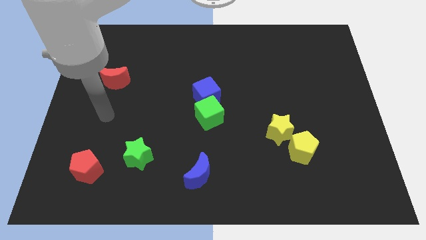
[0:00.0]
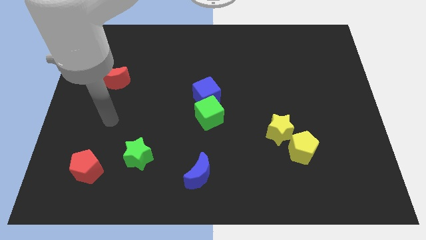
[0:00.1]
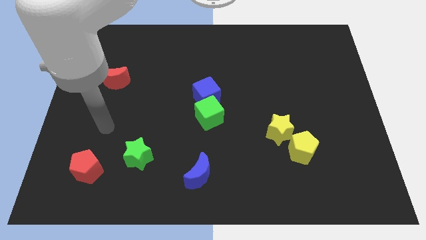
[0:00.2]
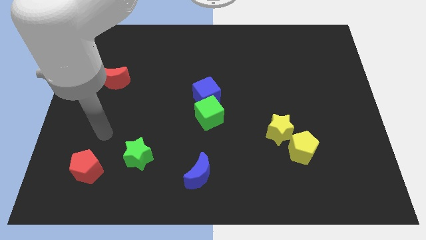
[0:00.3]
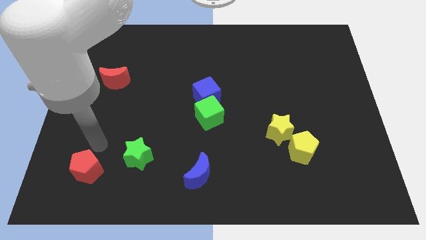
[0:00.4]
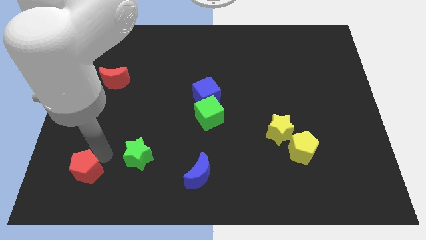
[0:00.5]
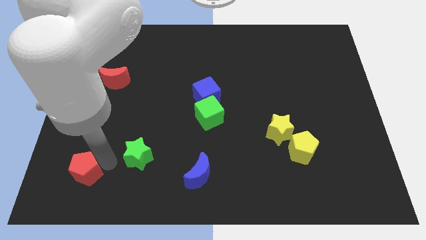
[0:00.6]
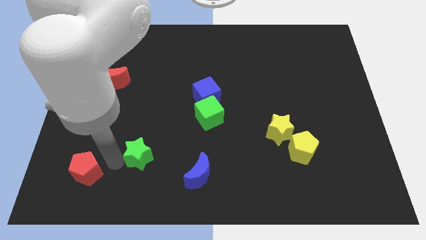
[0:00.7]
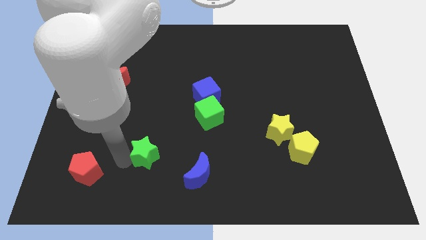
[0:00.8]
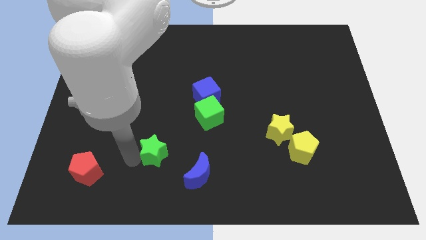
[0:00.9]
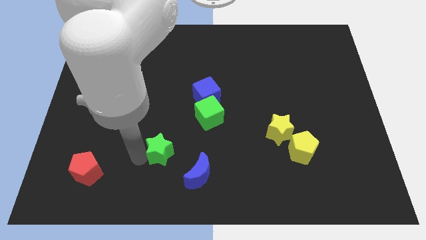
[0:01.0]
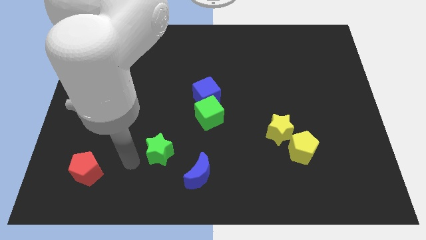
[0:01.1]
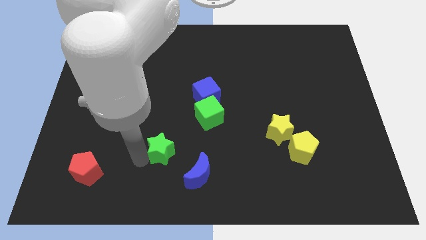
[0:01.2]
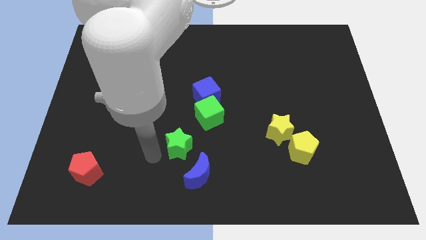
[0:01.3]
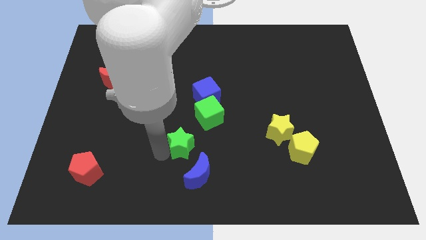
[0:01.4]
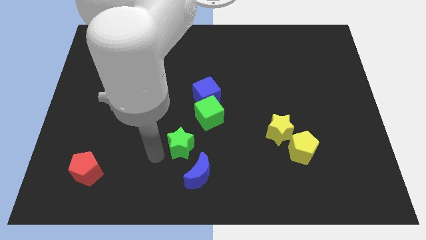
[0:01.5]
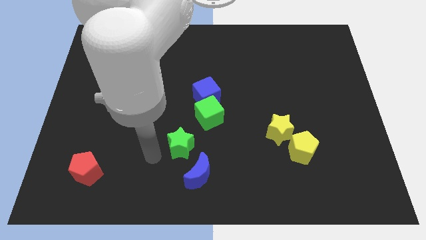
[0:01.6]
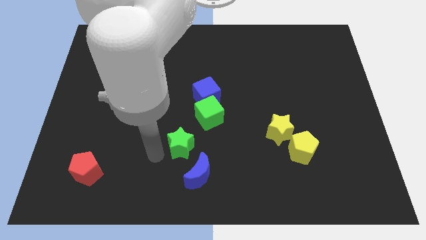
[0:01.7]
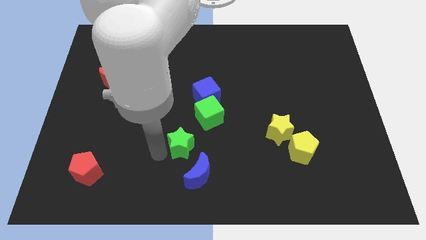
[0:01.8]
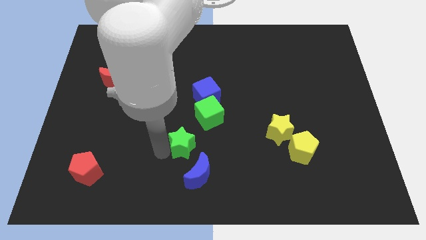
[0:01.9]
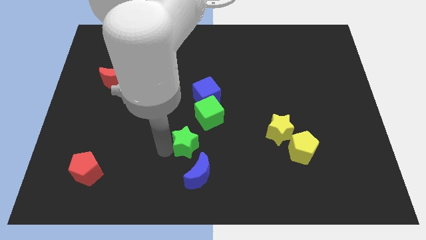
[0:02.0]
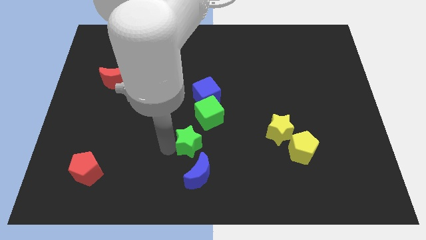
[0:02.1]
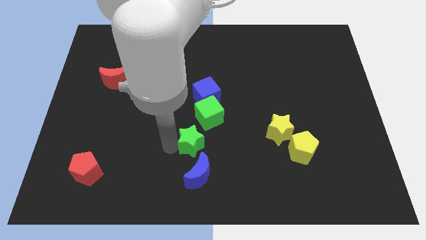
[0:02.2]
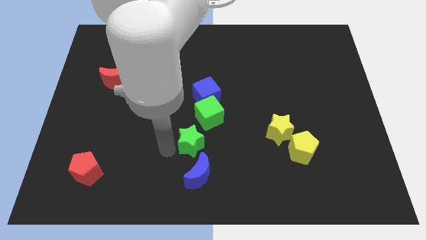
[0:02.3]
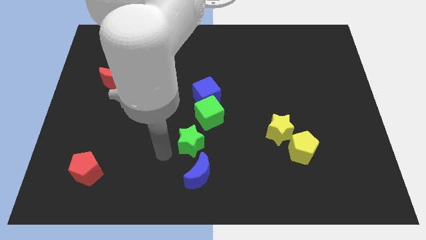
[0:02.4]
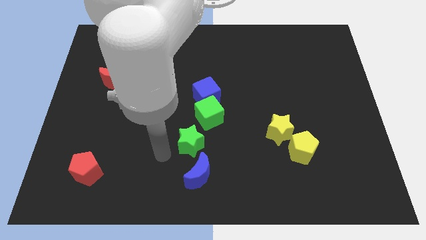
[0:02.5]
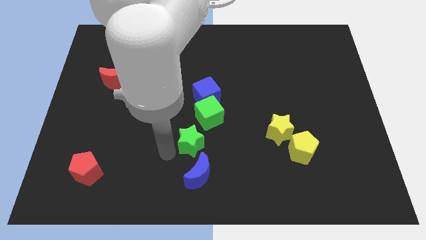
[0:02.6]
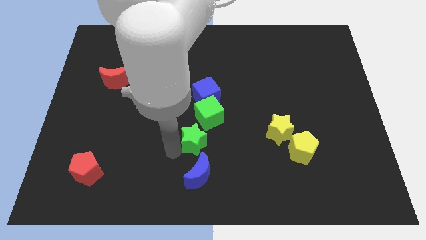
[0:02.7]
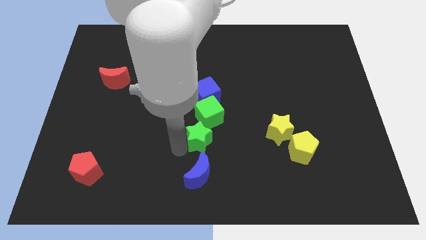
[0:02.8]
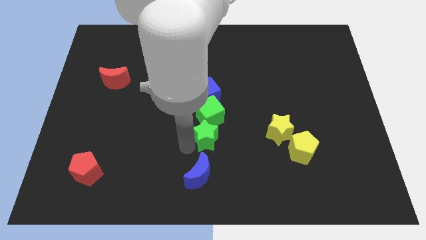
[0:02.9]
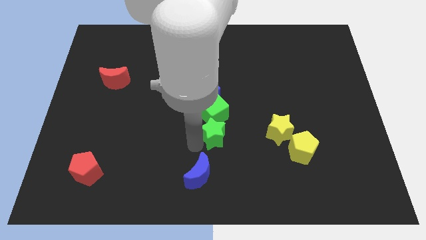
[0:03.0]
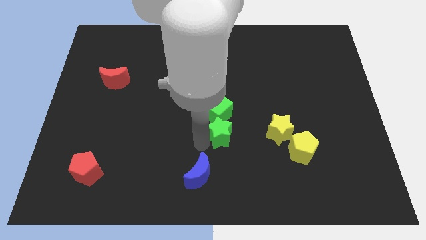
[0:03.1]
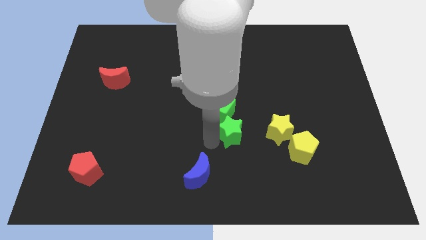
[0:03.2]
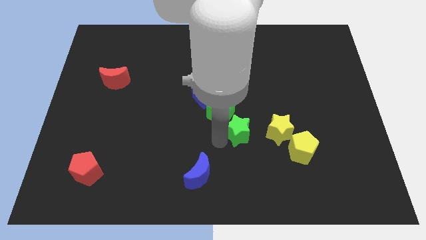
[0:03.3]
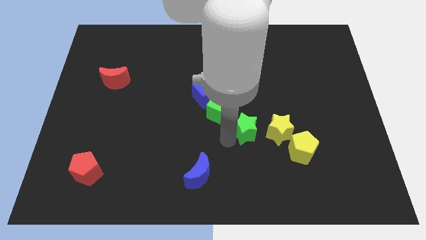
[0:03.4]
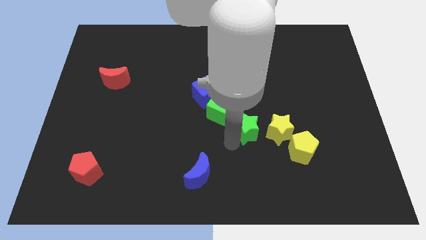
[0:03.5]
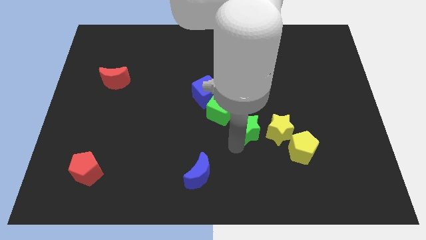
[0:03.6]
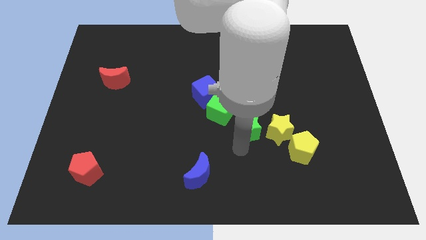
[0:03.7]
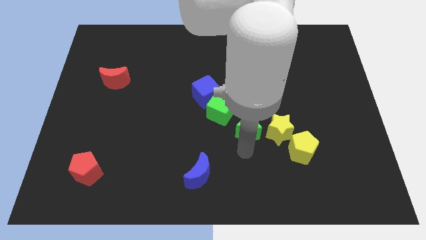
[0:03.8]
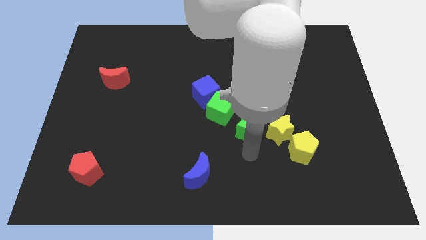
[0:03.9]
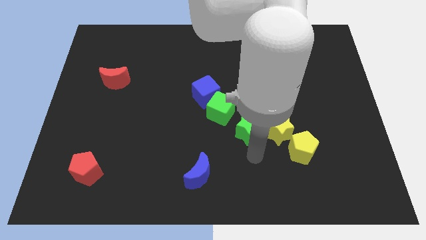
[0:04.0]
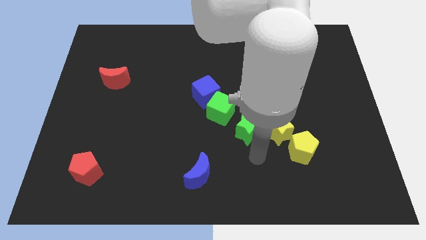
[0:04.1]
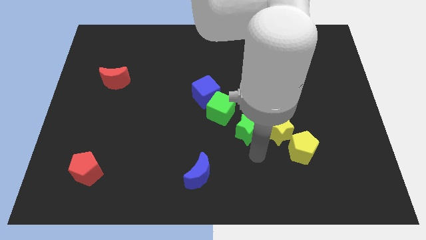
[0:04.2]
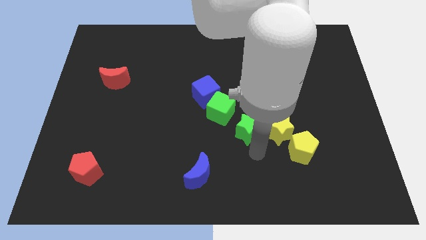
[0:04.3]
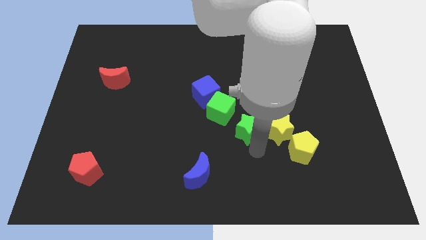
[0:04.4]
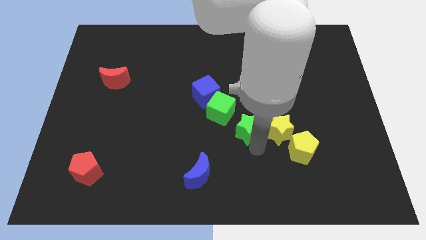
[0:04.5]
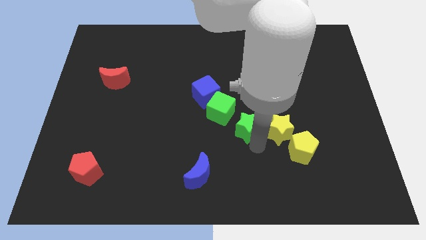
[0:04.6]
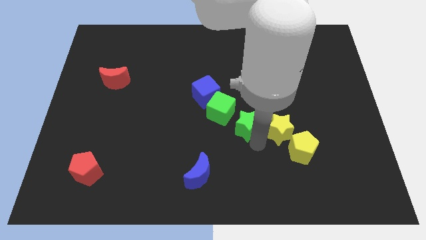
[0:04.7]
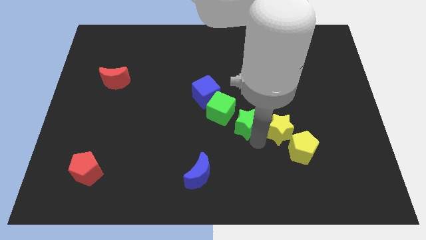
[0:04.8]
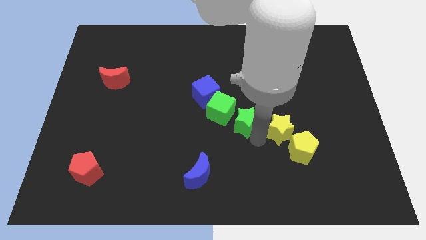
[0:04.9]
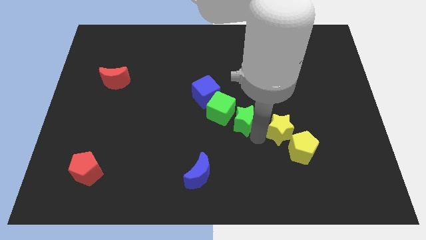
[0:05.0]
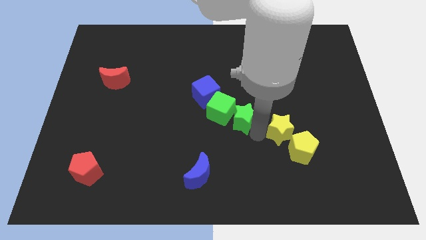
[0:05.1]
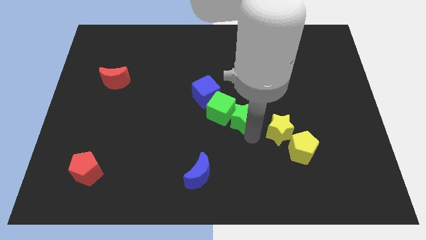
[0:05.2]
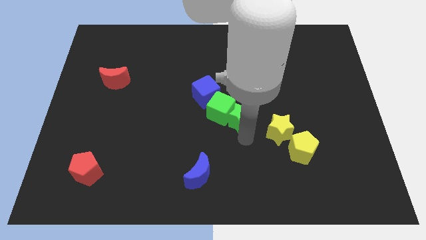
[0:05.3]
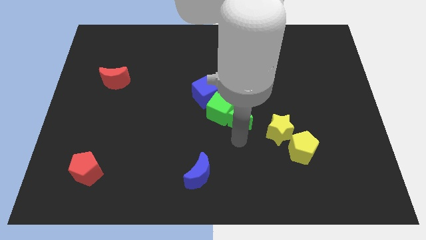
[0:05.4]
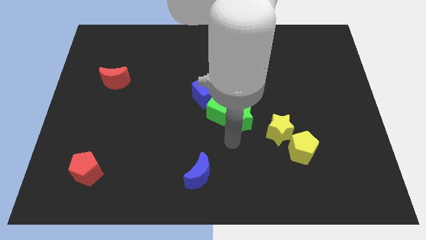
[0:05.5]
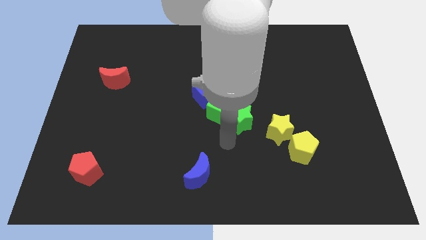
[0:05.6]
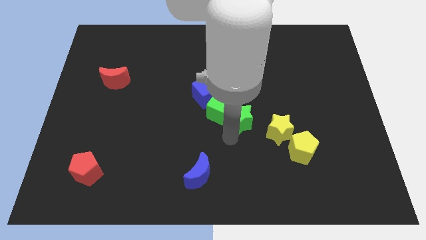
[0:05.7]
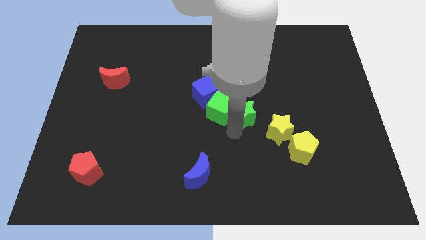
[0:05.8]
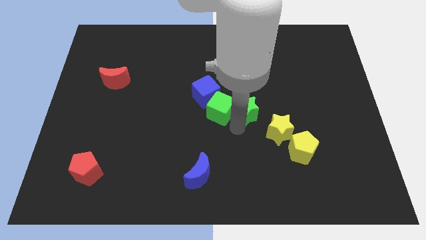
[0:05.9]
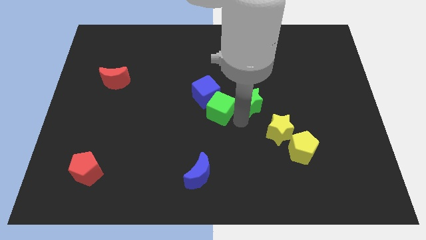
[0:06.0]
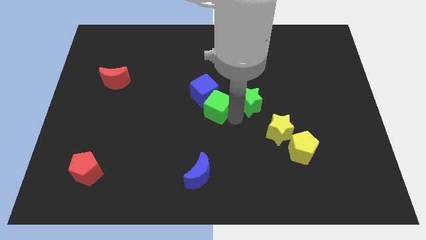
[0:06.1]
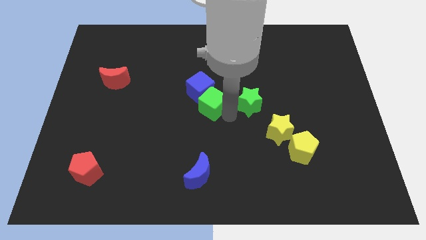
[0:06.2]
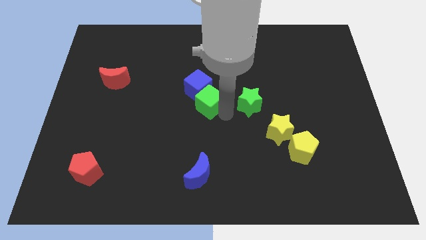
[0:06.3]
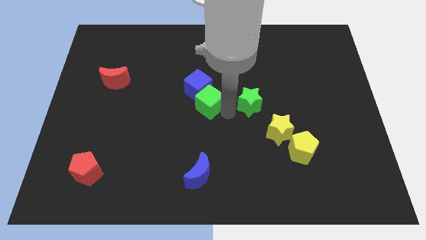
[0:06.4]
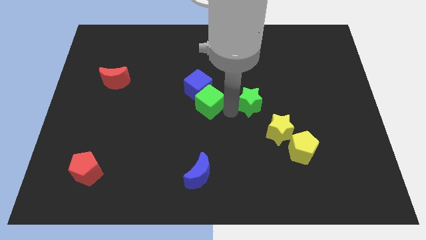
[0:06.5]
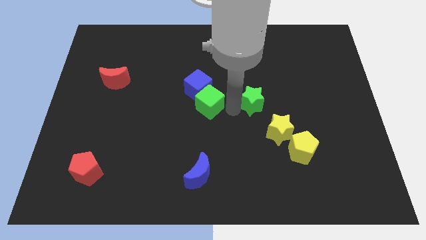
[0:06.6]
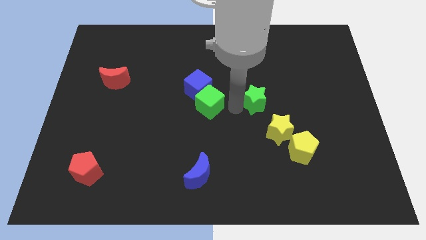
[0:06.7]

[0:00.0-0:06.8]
push the green star above the yellow star
